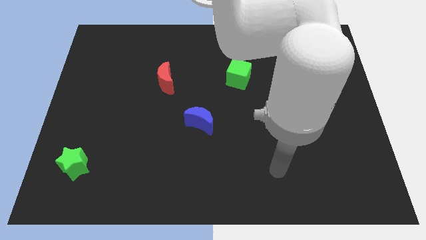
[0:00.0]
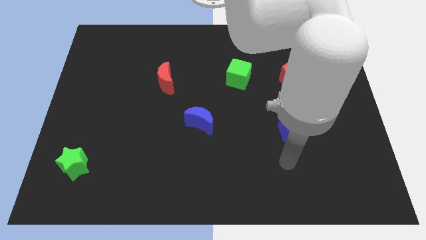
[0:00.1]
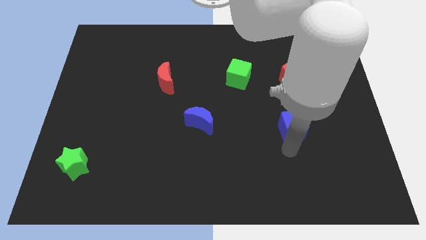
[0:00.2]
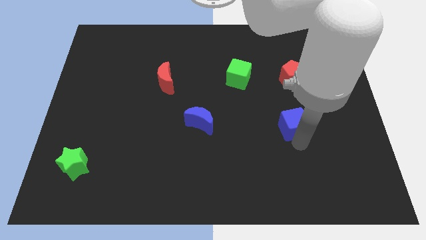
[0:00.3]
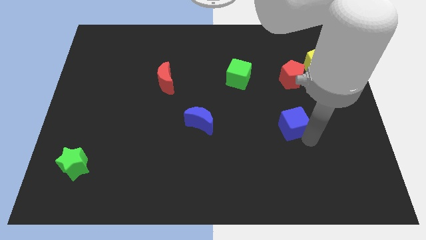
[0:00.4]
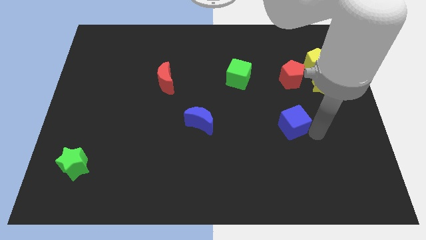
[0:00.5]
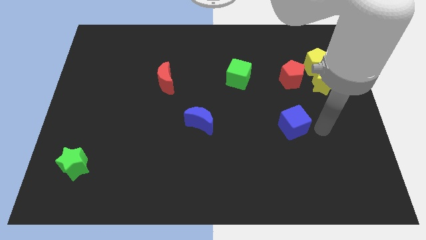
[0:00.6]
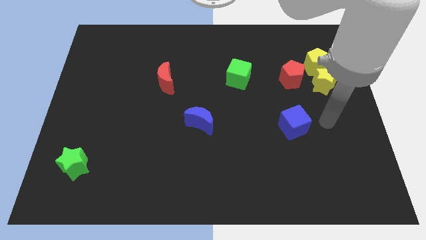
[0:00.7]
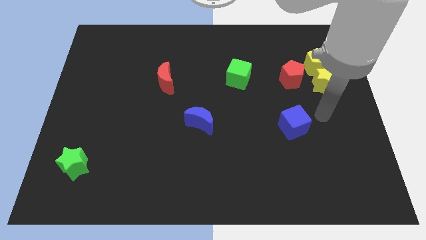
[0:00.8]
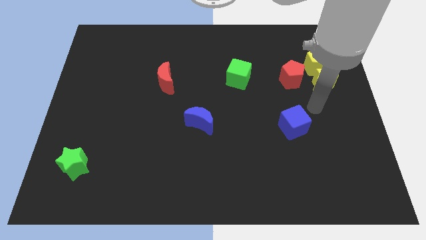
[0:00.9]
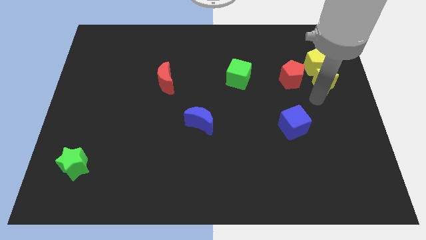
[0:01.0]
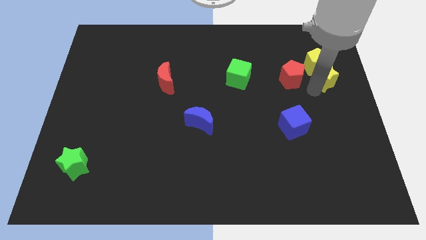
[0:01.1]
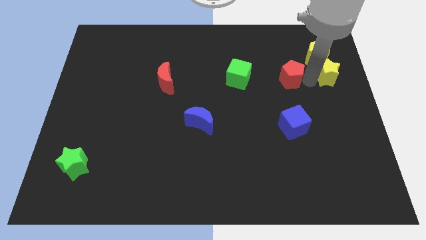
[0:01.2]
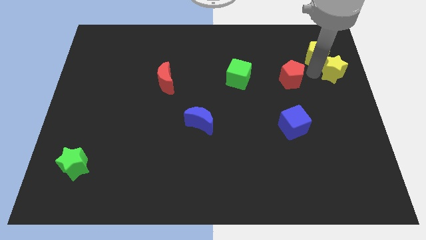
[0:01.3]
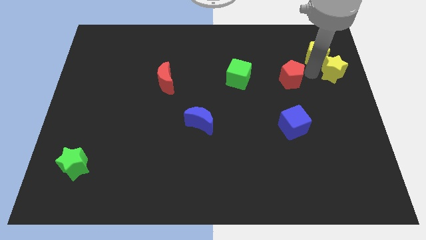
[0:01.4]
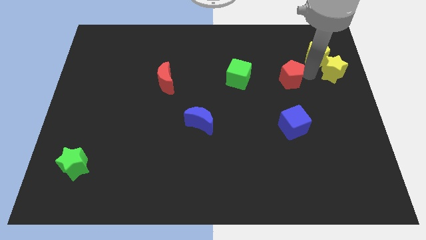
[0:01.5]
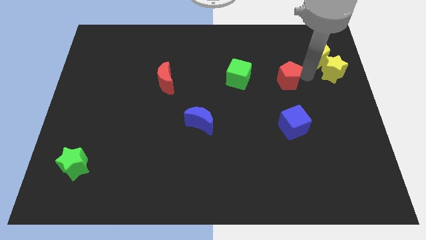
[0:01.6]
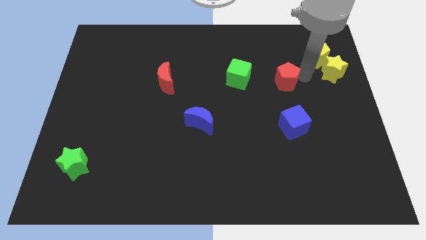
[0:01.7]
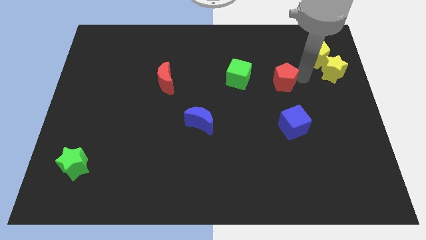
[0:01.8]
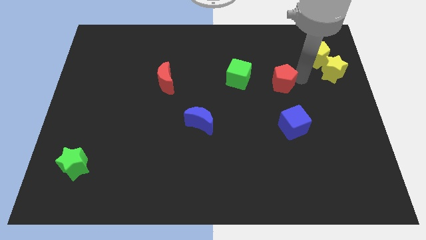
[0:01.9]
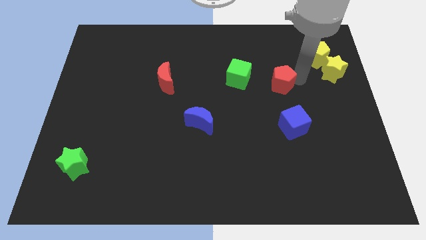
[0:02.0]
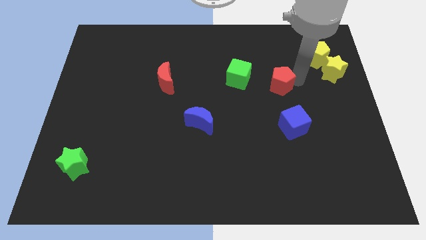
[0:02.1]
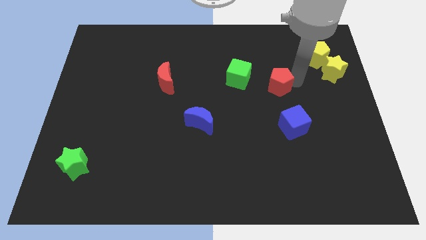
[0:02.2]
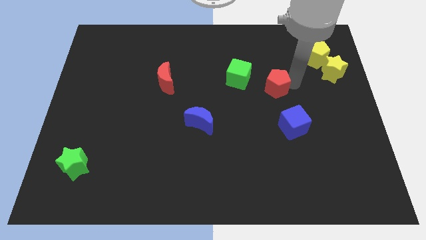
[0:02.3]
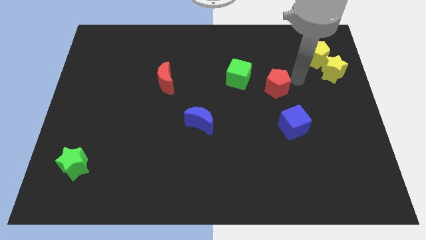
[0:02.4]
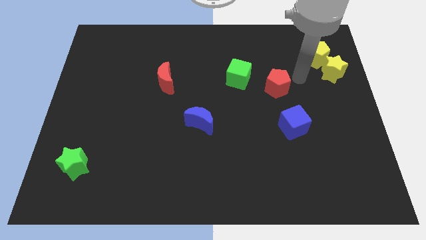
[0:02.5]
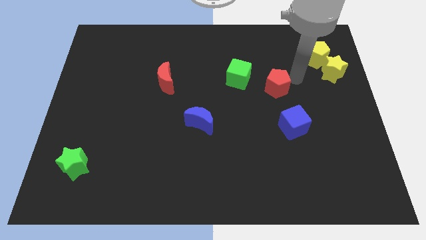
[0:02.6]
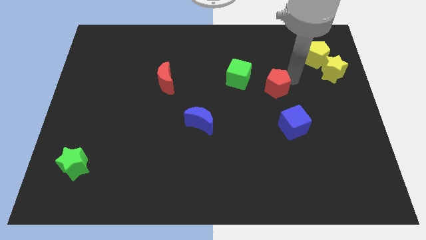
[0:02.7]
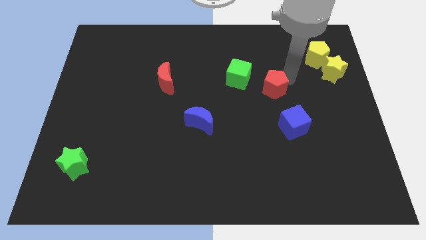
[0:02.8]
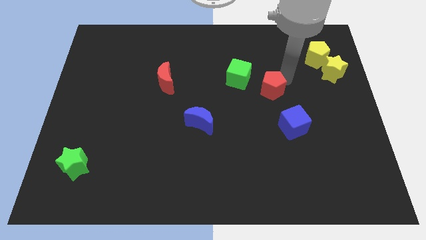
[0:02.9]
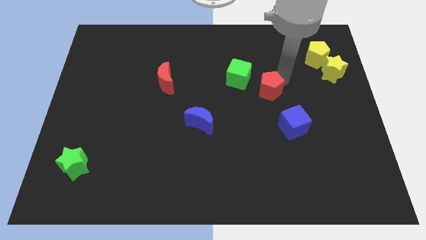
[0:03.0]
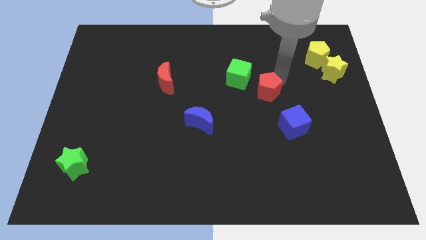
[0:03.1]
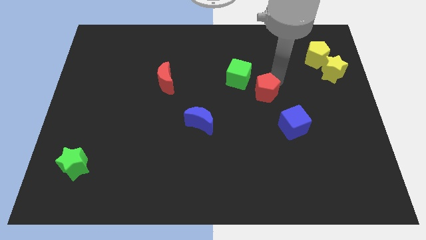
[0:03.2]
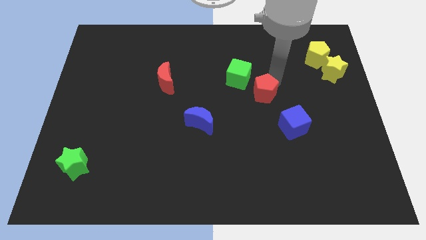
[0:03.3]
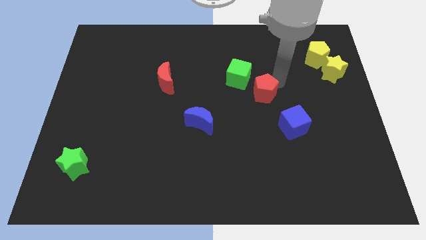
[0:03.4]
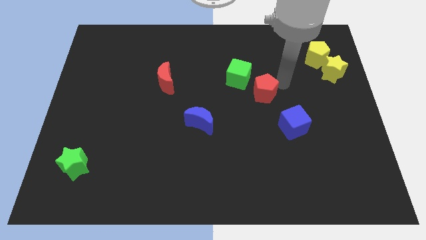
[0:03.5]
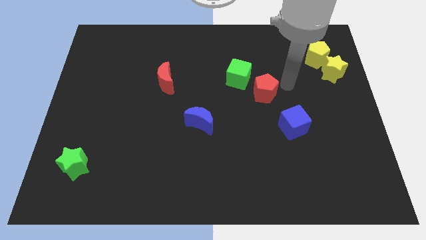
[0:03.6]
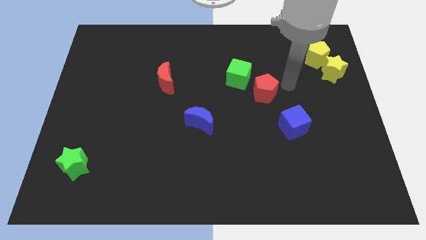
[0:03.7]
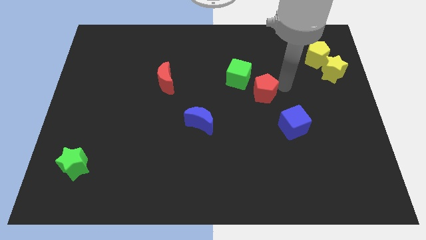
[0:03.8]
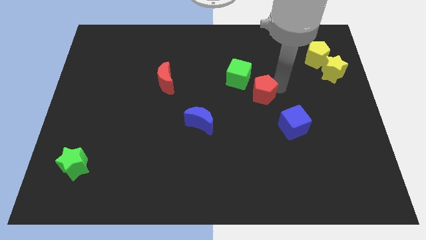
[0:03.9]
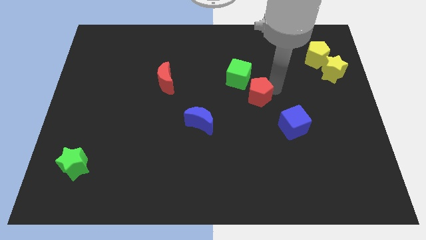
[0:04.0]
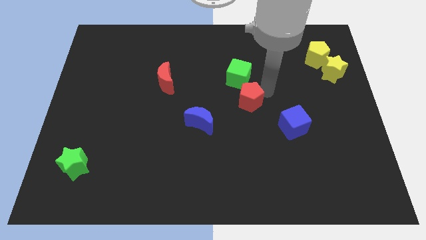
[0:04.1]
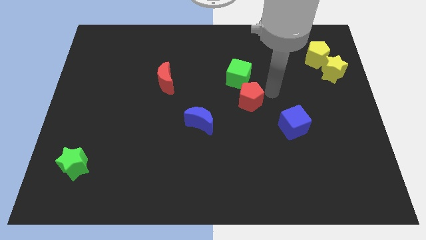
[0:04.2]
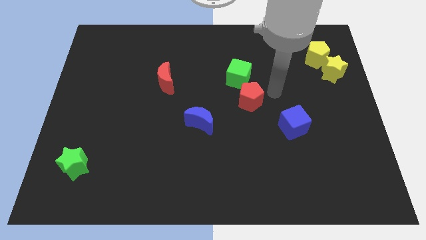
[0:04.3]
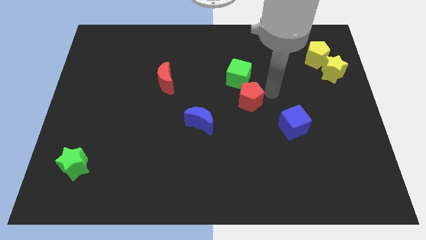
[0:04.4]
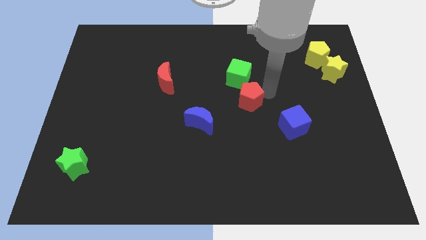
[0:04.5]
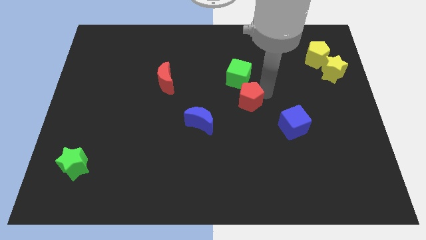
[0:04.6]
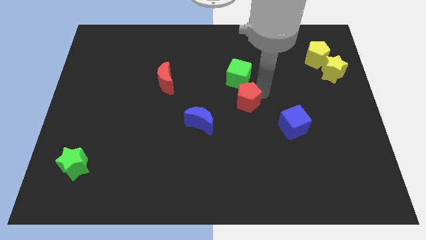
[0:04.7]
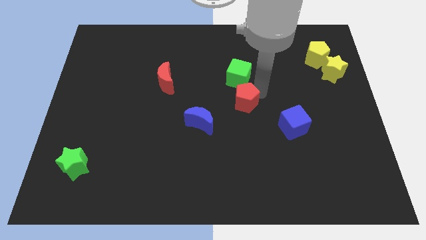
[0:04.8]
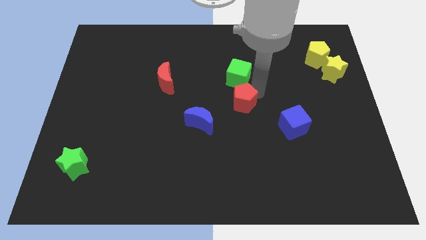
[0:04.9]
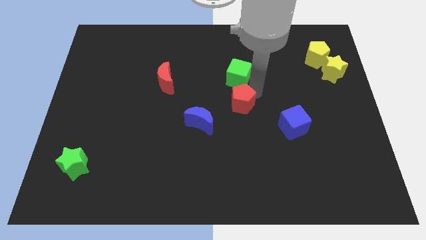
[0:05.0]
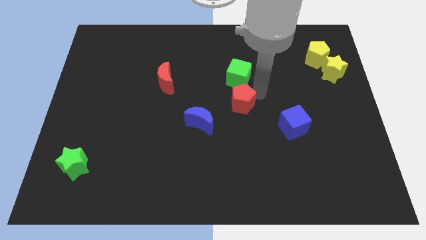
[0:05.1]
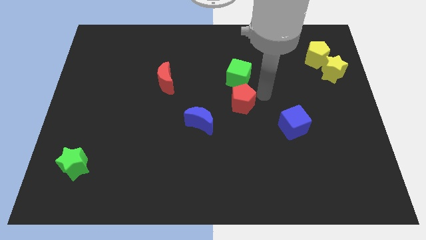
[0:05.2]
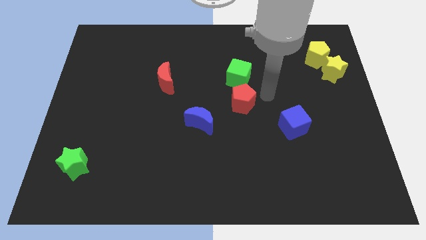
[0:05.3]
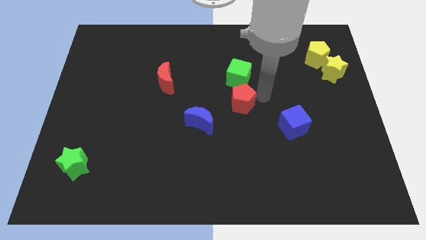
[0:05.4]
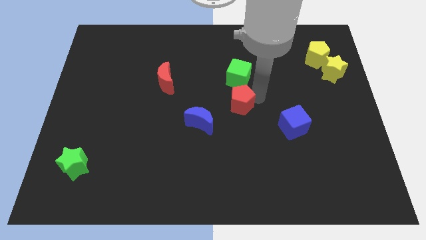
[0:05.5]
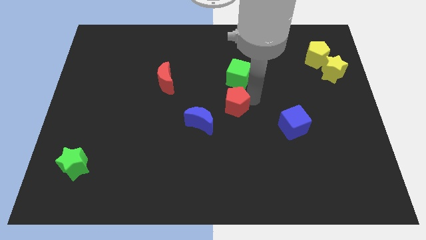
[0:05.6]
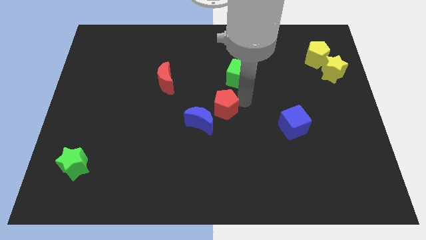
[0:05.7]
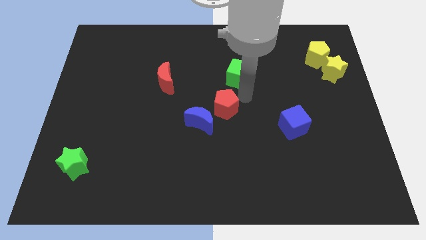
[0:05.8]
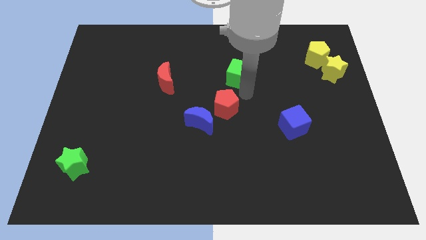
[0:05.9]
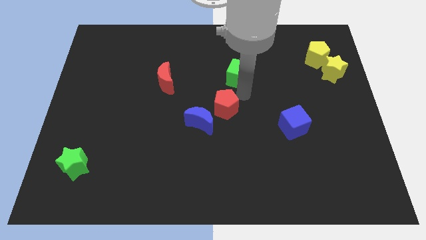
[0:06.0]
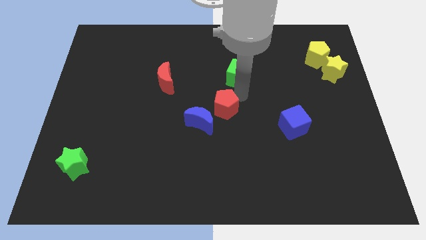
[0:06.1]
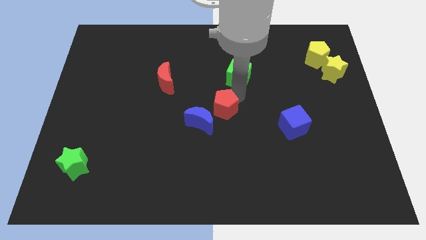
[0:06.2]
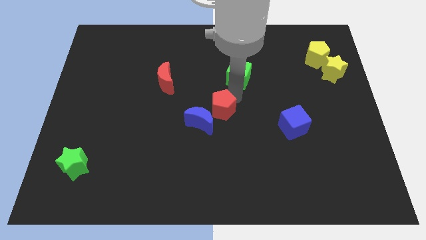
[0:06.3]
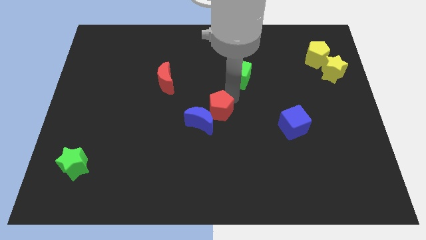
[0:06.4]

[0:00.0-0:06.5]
put the red pentagon towards the blue moon
